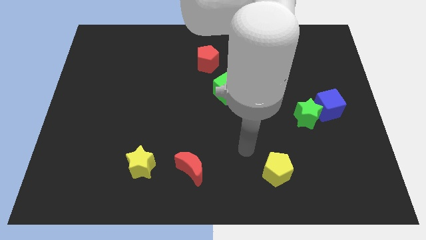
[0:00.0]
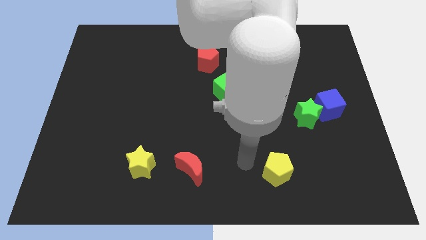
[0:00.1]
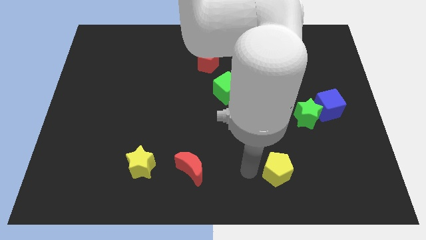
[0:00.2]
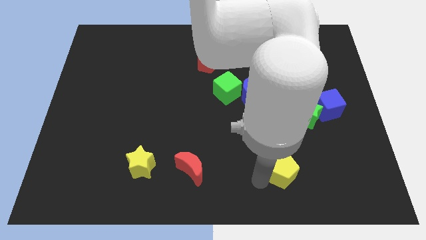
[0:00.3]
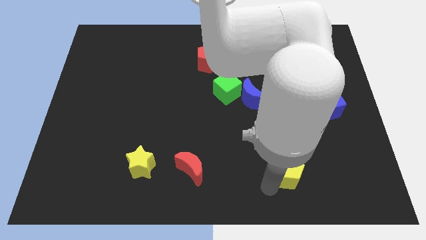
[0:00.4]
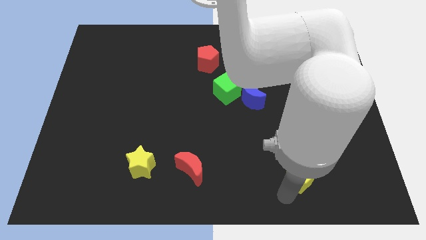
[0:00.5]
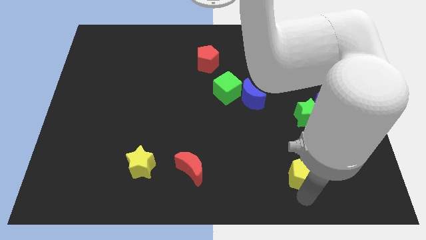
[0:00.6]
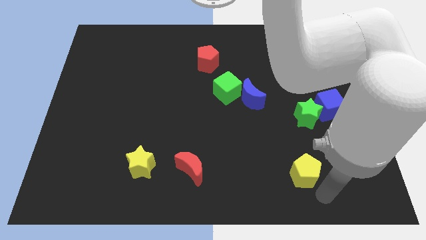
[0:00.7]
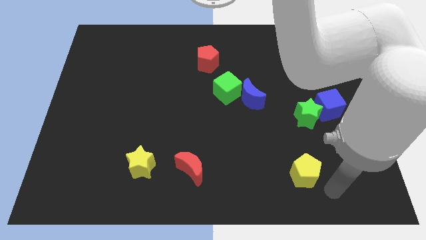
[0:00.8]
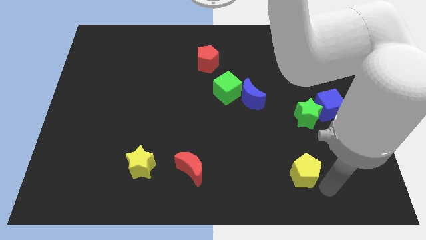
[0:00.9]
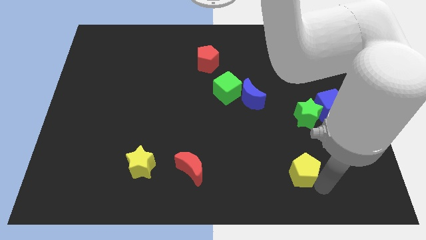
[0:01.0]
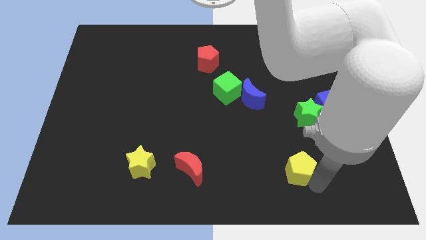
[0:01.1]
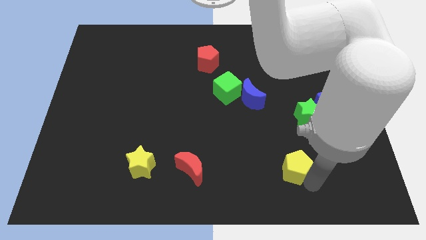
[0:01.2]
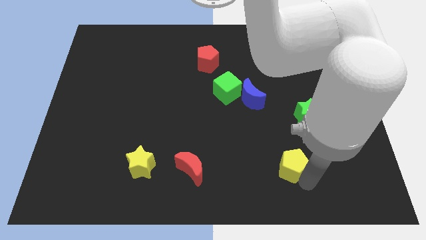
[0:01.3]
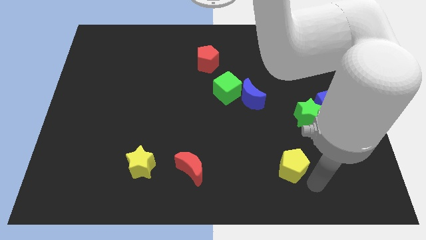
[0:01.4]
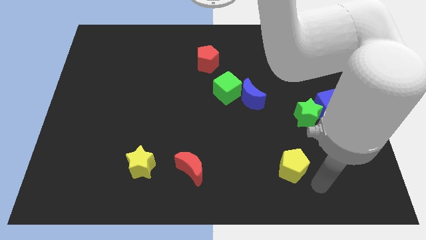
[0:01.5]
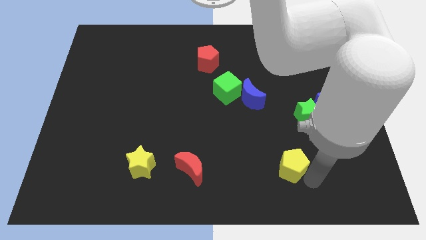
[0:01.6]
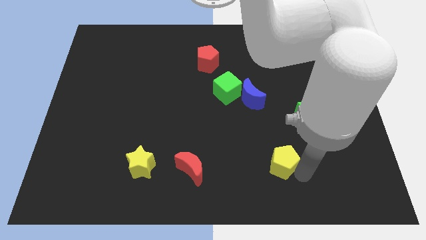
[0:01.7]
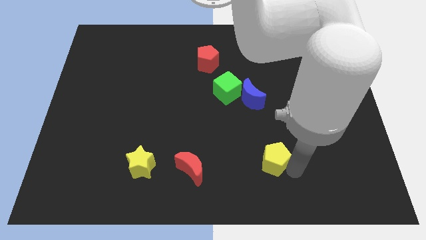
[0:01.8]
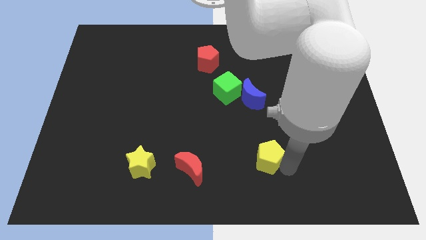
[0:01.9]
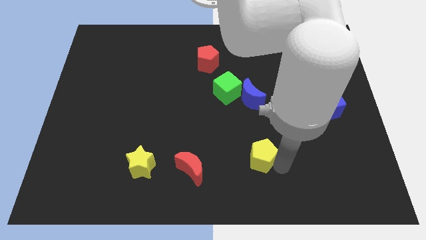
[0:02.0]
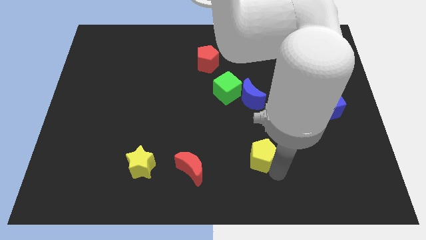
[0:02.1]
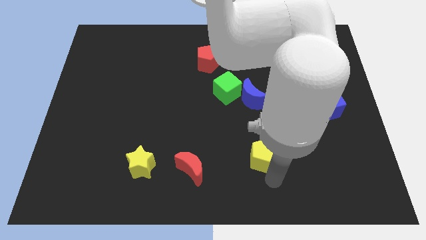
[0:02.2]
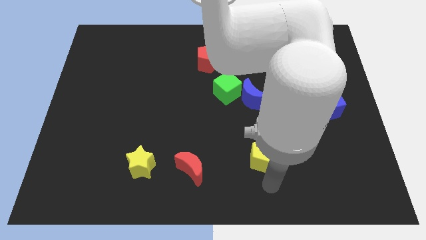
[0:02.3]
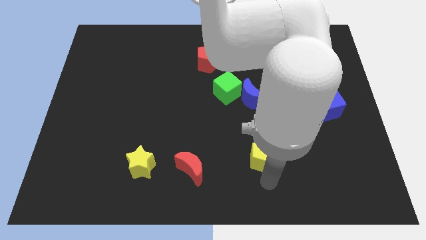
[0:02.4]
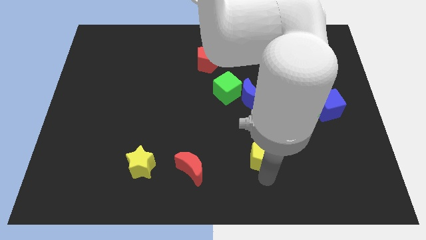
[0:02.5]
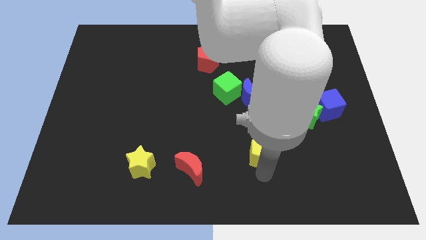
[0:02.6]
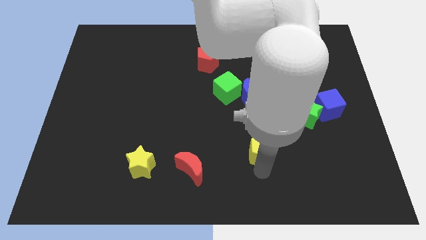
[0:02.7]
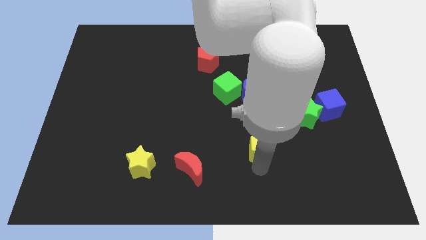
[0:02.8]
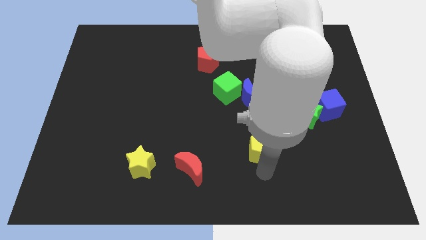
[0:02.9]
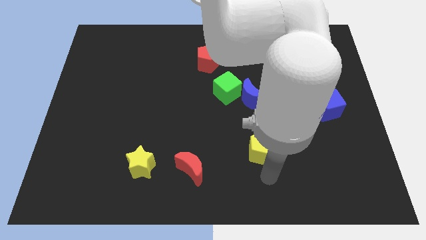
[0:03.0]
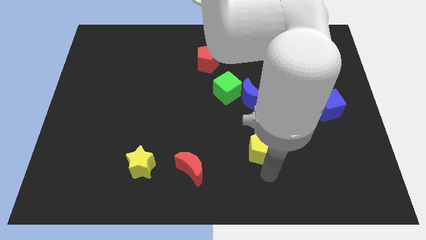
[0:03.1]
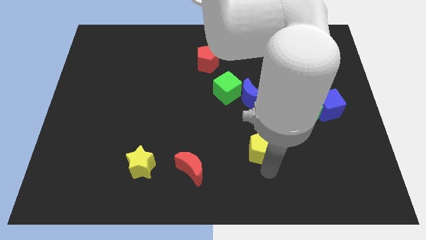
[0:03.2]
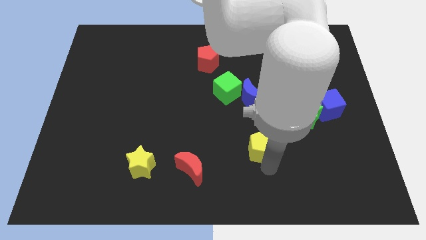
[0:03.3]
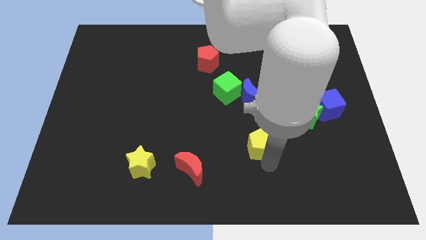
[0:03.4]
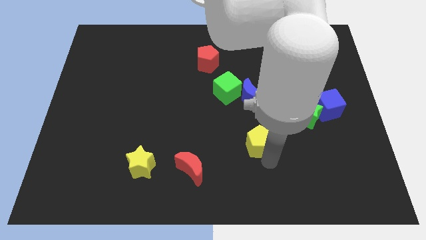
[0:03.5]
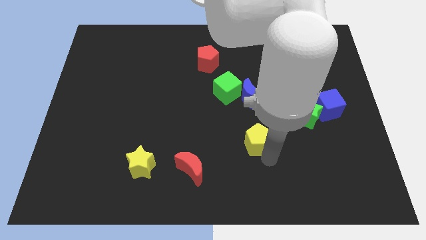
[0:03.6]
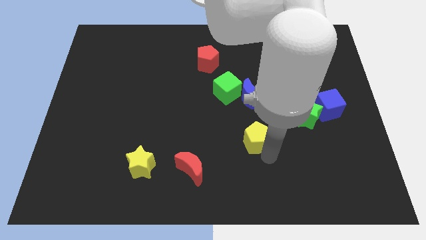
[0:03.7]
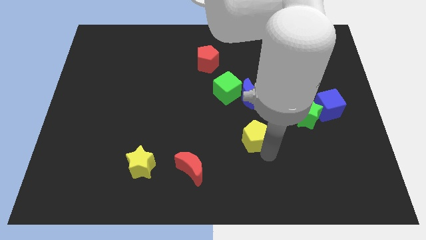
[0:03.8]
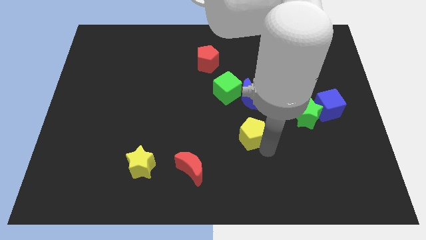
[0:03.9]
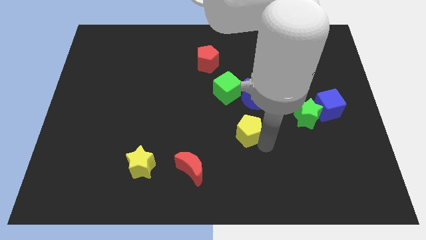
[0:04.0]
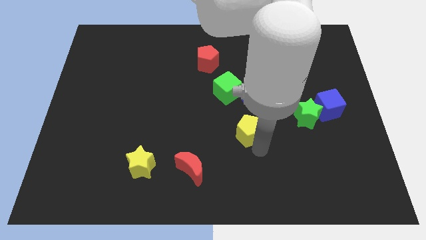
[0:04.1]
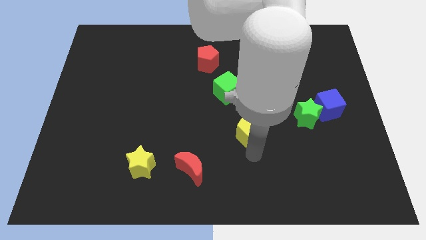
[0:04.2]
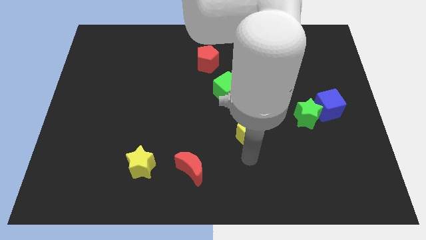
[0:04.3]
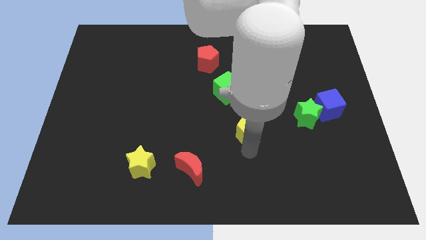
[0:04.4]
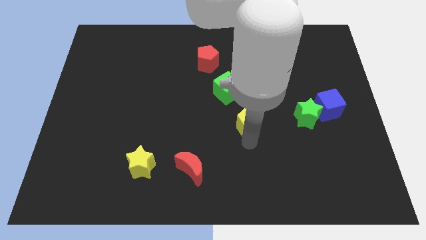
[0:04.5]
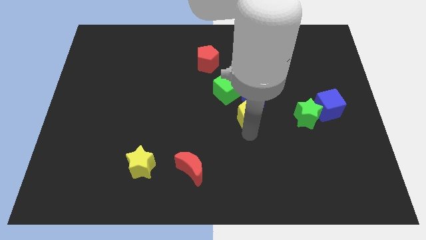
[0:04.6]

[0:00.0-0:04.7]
move the yellow pentagon close to the blue moon

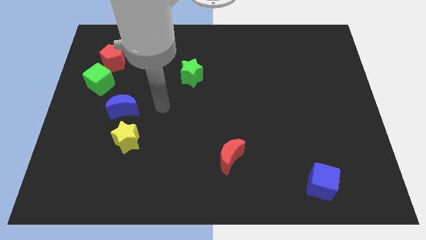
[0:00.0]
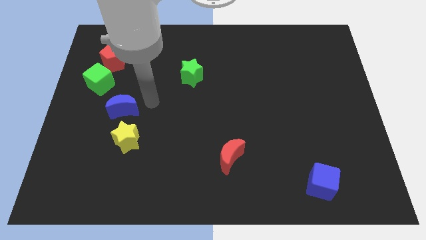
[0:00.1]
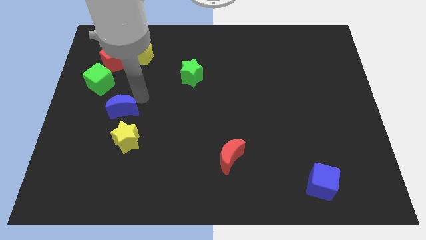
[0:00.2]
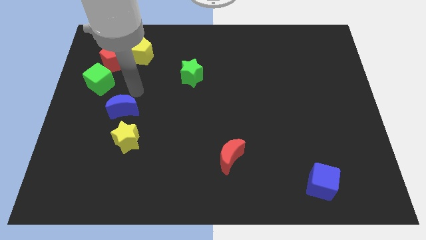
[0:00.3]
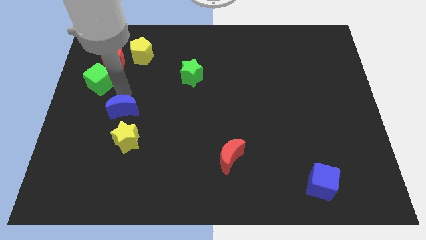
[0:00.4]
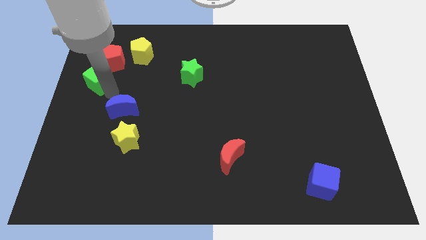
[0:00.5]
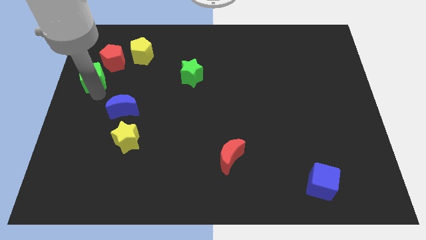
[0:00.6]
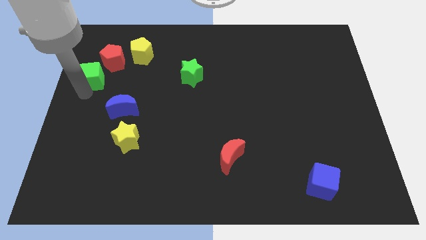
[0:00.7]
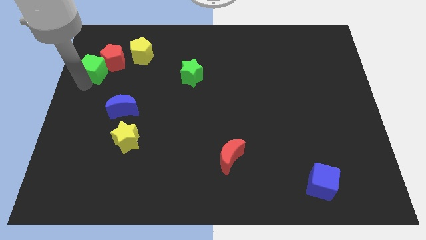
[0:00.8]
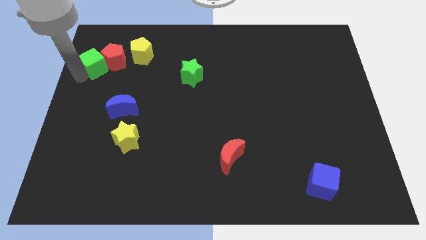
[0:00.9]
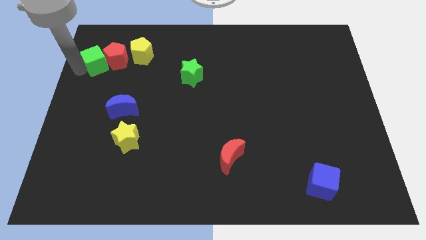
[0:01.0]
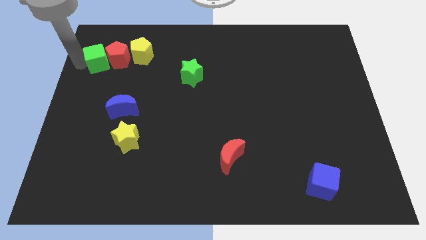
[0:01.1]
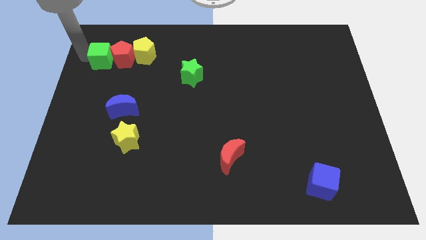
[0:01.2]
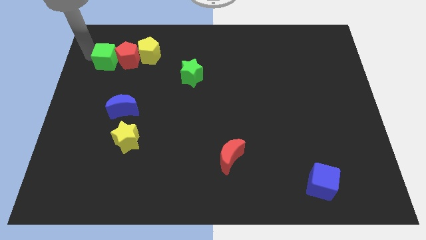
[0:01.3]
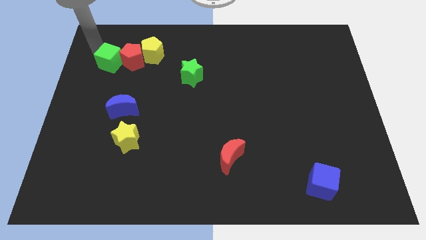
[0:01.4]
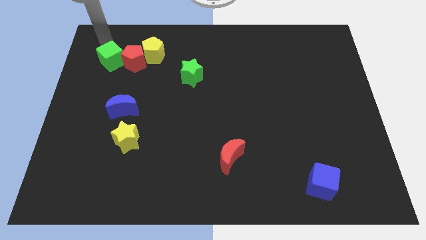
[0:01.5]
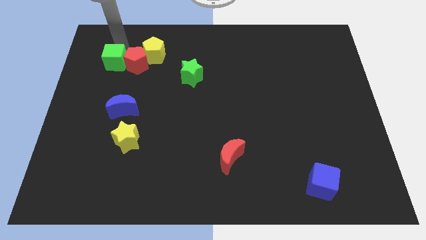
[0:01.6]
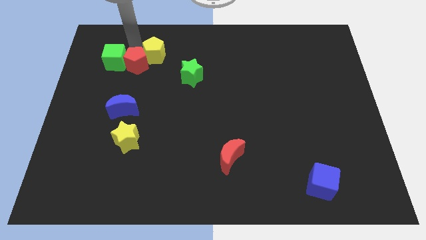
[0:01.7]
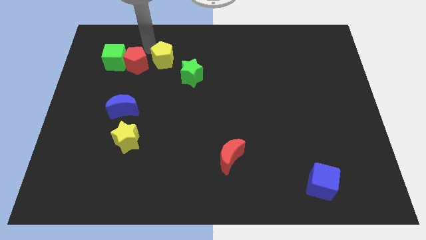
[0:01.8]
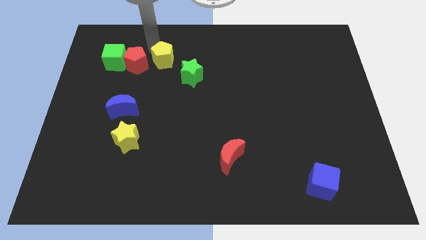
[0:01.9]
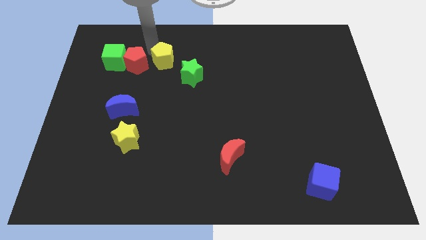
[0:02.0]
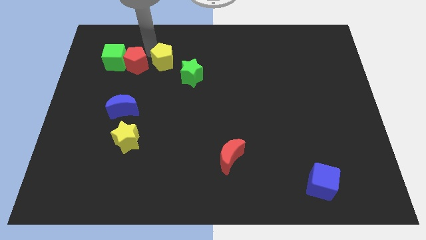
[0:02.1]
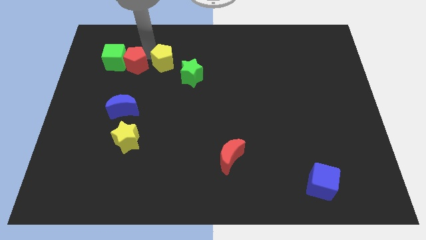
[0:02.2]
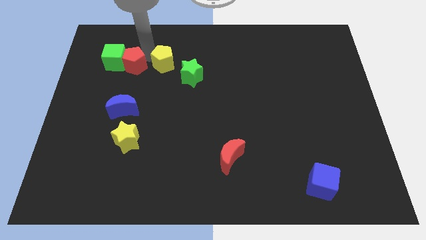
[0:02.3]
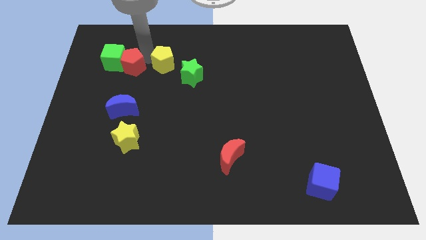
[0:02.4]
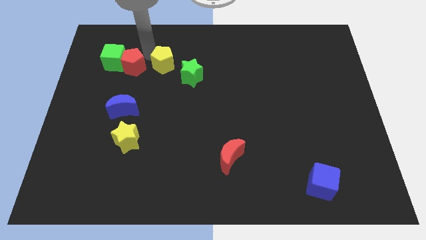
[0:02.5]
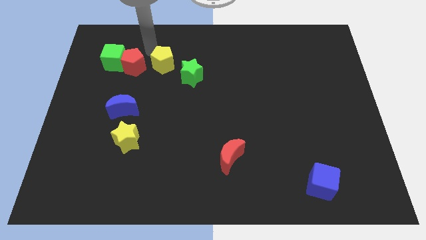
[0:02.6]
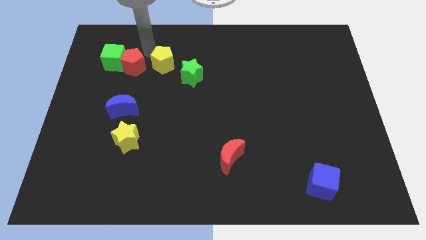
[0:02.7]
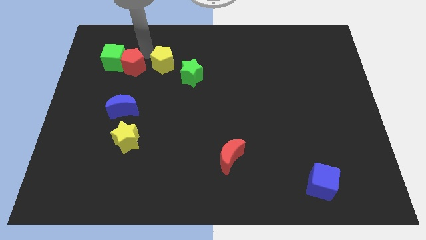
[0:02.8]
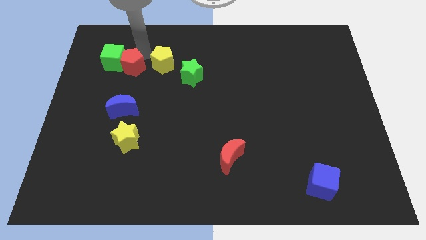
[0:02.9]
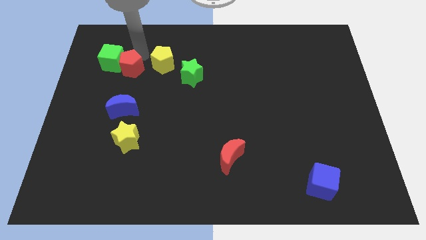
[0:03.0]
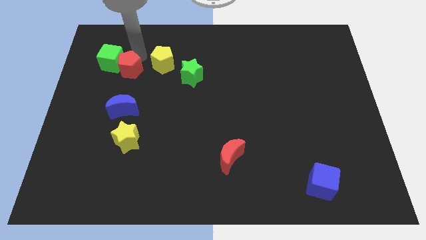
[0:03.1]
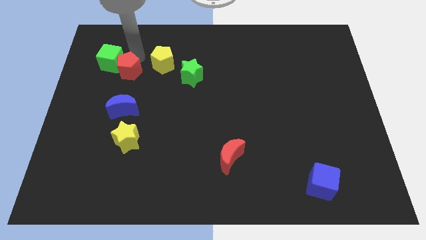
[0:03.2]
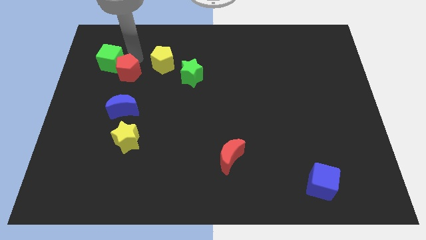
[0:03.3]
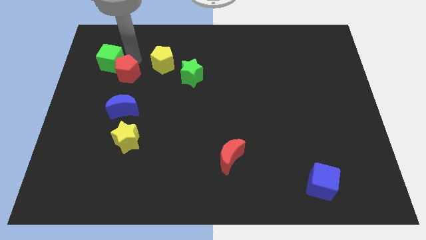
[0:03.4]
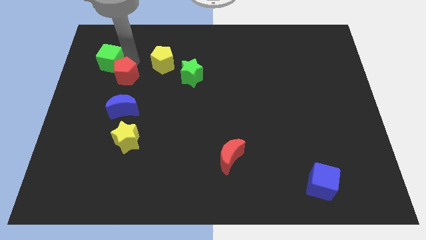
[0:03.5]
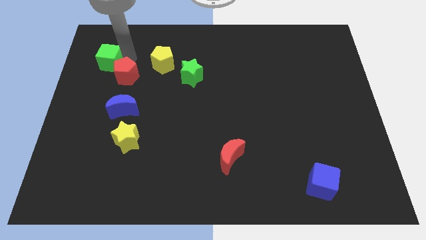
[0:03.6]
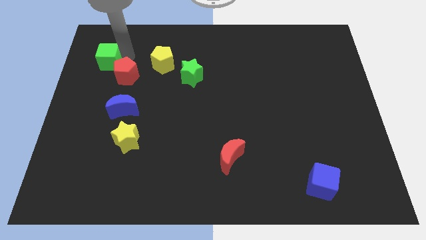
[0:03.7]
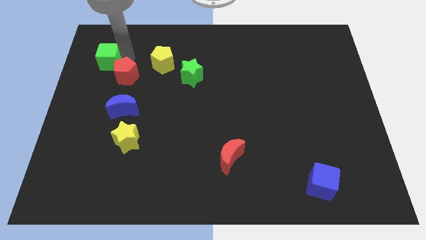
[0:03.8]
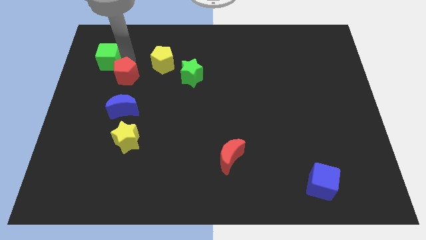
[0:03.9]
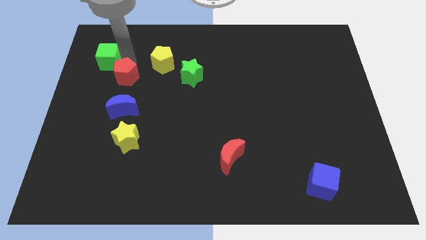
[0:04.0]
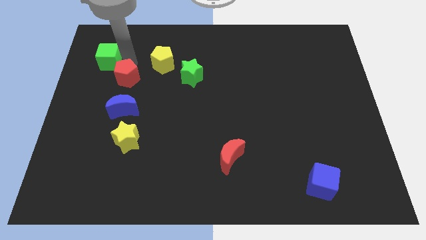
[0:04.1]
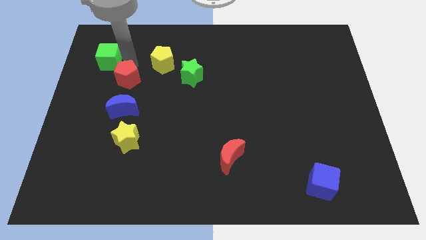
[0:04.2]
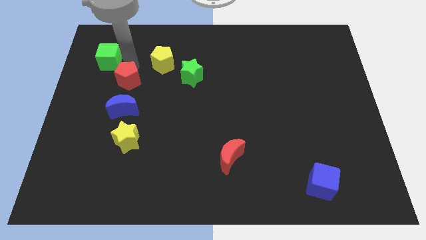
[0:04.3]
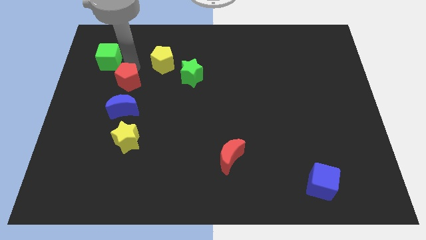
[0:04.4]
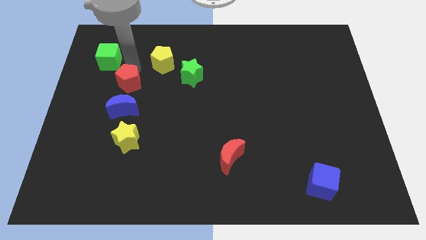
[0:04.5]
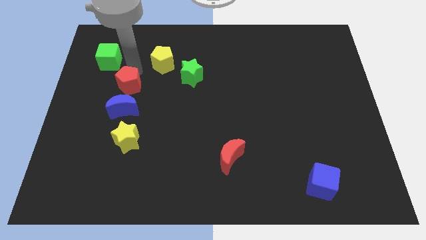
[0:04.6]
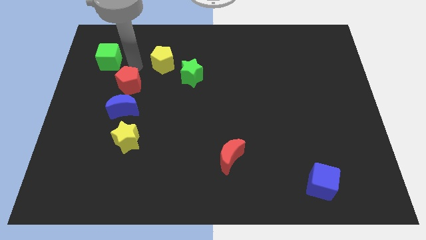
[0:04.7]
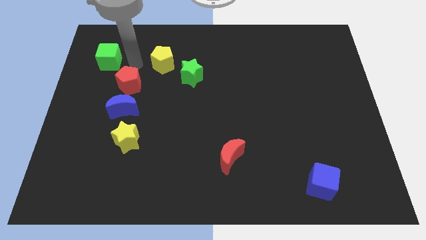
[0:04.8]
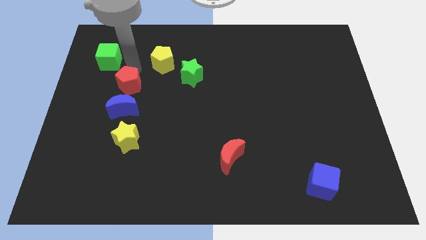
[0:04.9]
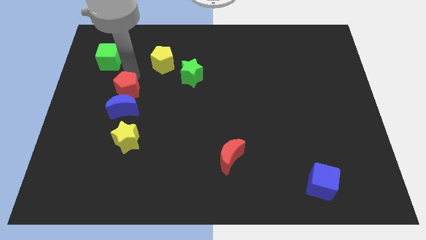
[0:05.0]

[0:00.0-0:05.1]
move the red pentagon next to the blue moon
